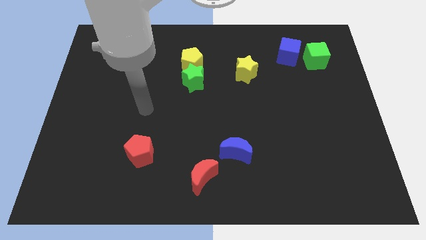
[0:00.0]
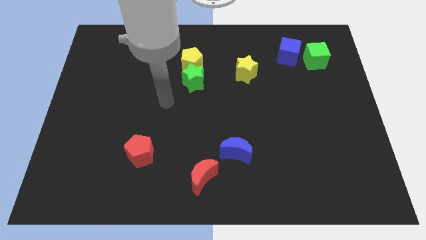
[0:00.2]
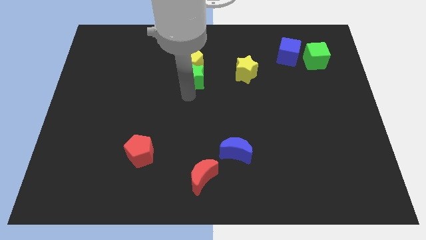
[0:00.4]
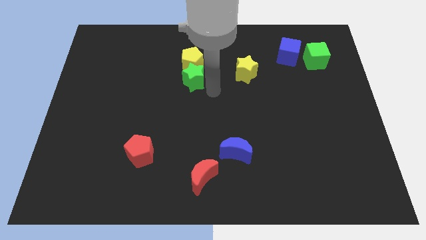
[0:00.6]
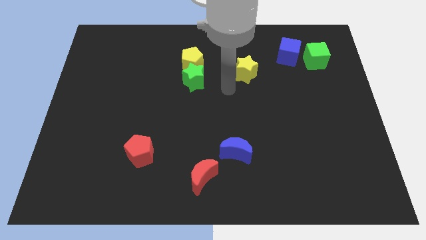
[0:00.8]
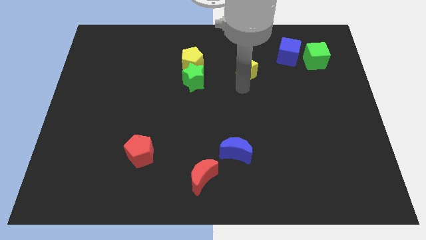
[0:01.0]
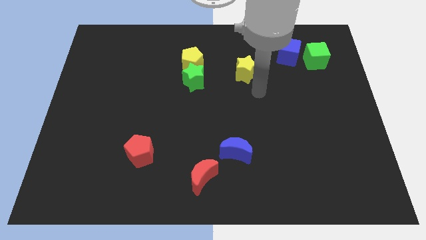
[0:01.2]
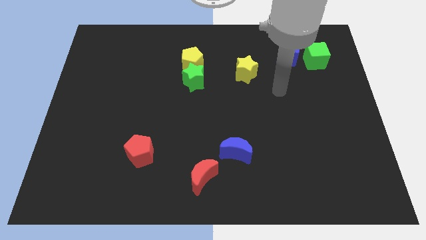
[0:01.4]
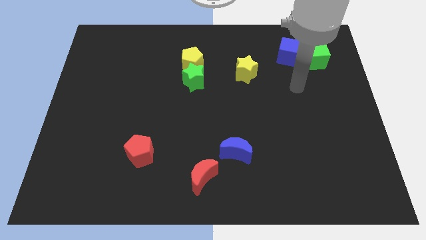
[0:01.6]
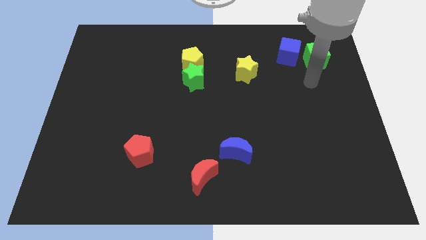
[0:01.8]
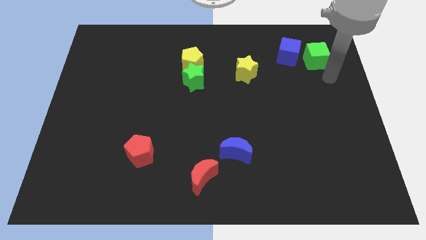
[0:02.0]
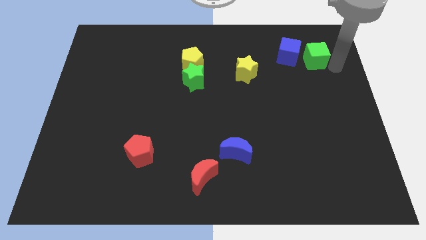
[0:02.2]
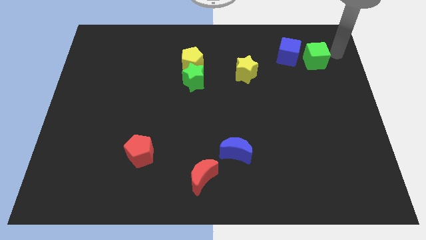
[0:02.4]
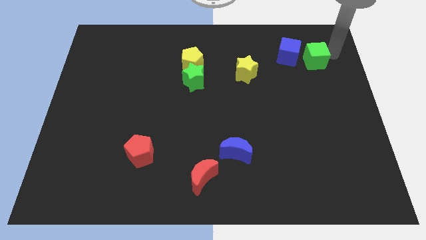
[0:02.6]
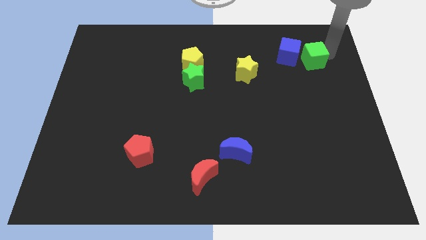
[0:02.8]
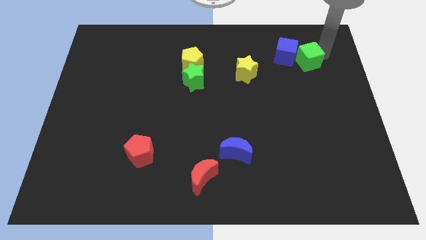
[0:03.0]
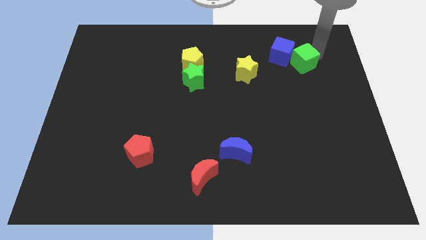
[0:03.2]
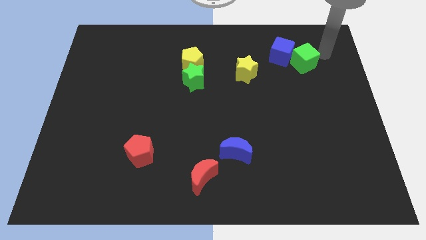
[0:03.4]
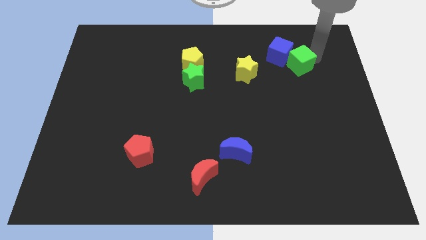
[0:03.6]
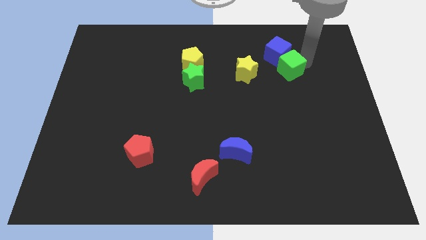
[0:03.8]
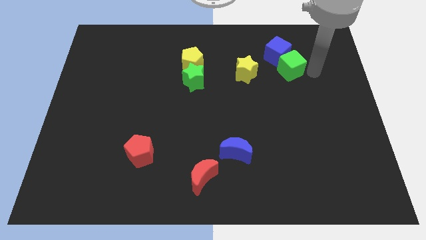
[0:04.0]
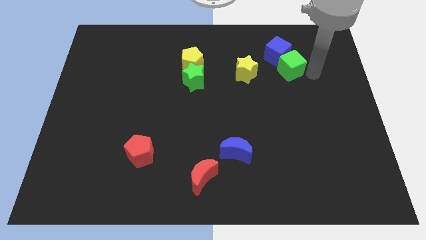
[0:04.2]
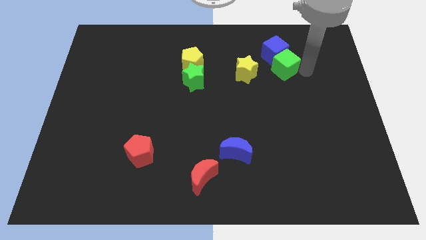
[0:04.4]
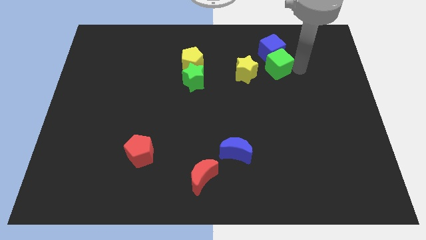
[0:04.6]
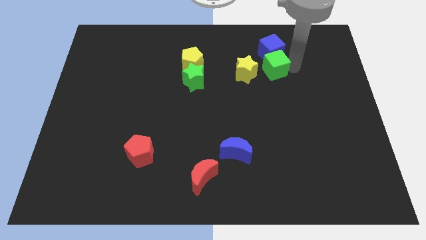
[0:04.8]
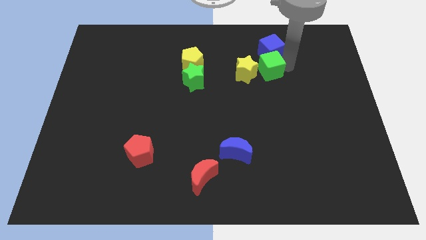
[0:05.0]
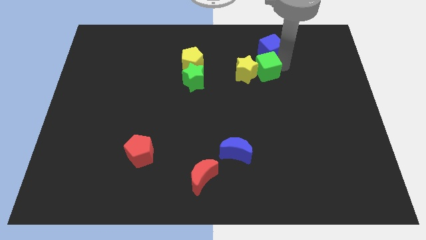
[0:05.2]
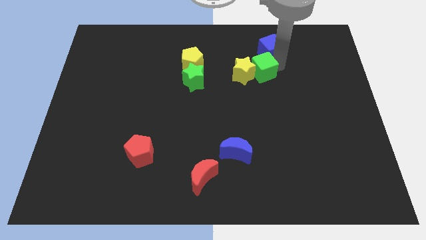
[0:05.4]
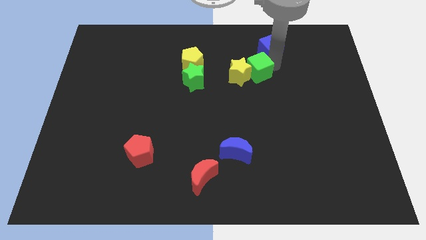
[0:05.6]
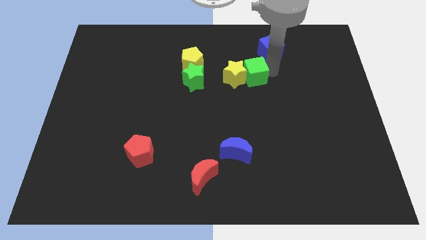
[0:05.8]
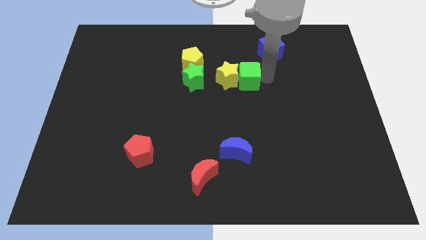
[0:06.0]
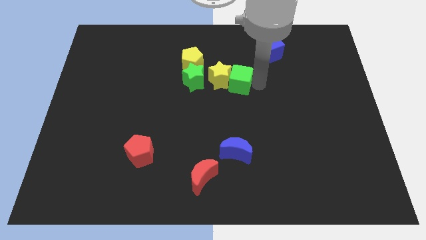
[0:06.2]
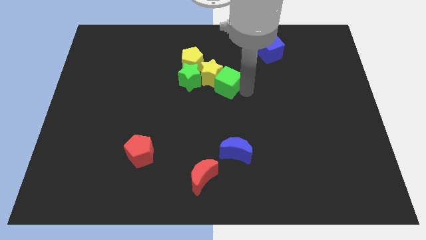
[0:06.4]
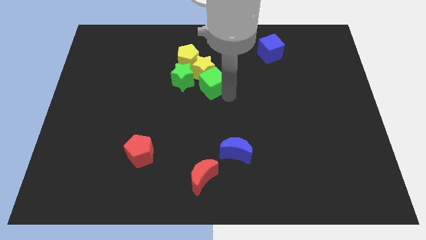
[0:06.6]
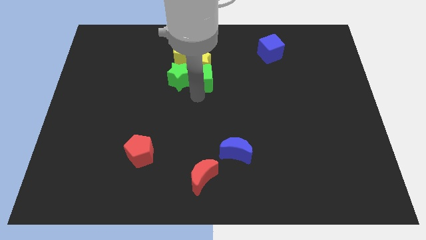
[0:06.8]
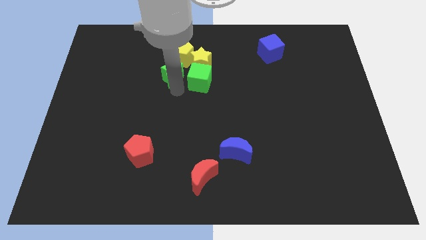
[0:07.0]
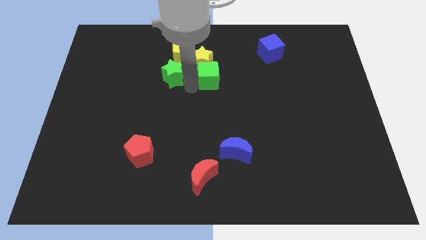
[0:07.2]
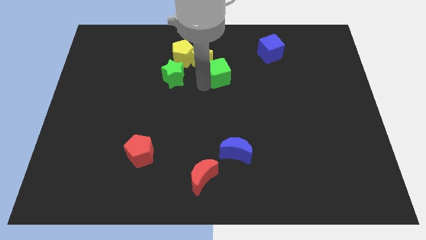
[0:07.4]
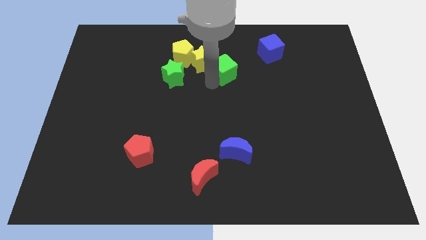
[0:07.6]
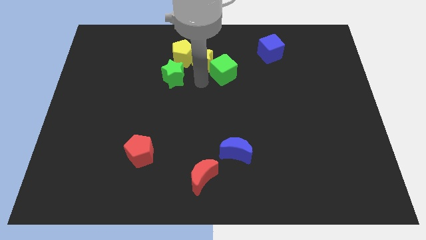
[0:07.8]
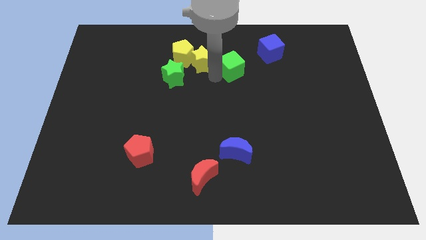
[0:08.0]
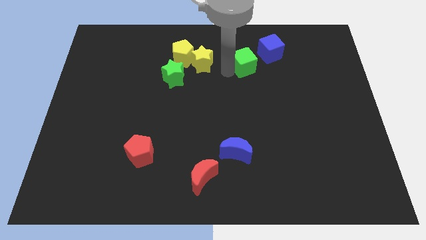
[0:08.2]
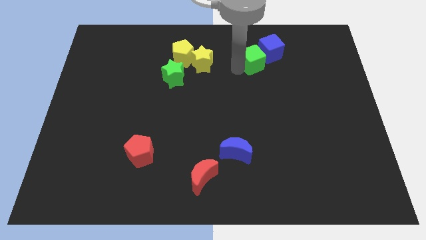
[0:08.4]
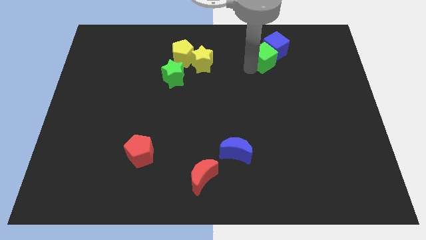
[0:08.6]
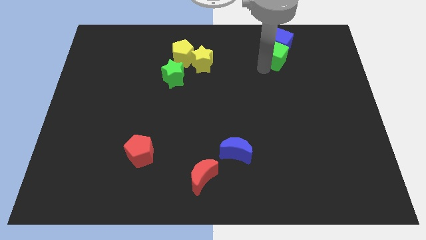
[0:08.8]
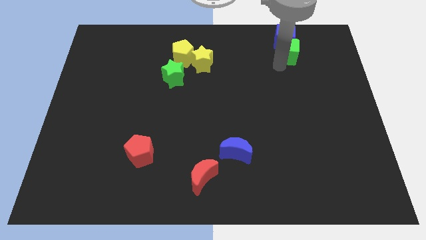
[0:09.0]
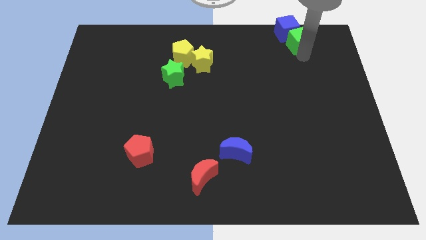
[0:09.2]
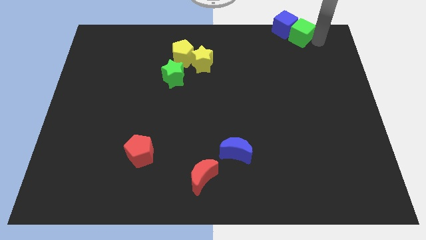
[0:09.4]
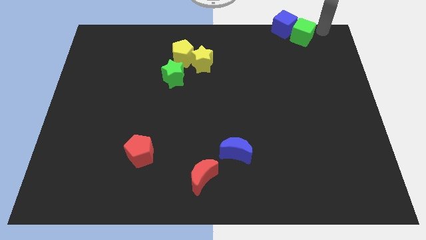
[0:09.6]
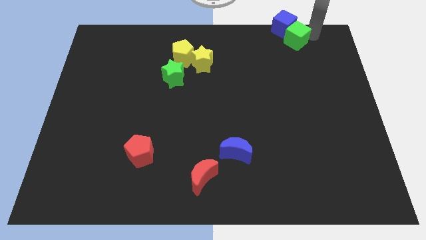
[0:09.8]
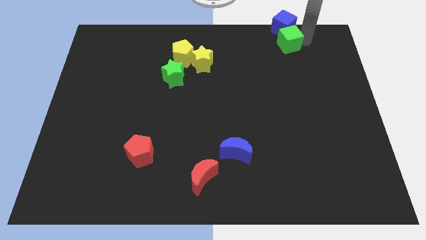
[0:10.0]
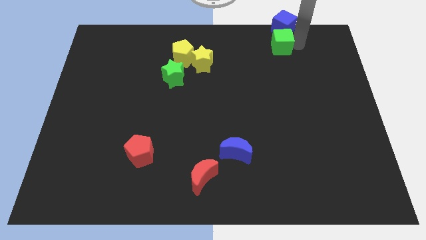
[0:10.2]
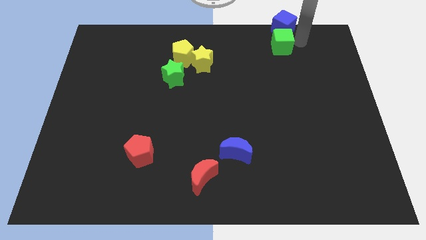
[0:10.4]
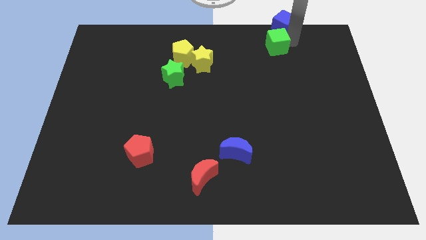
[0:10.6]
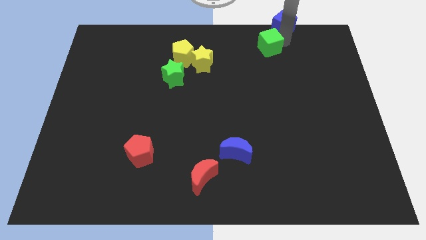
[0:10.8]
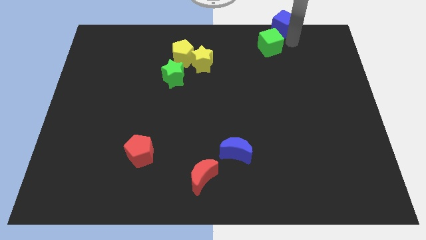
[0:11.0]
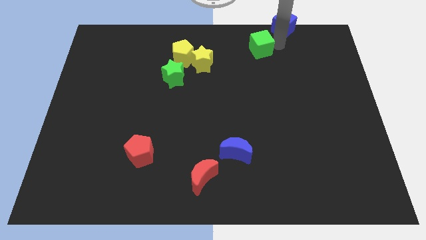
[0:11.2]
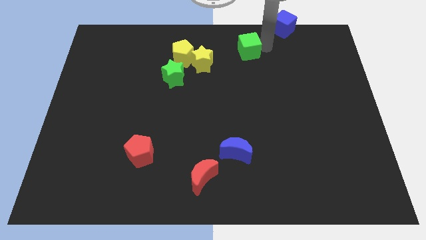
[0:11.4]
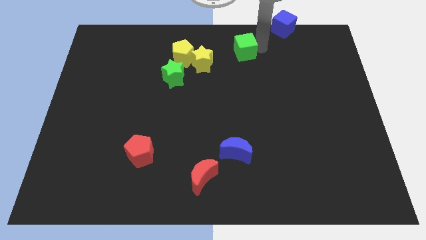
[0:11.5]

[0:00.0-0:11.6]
push the green cube to the towards your base
